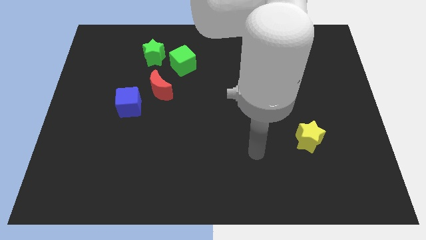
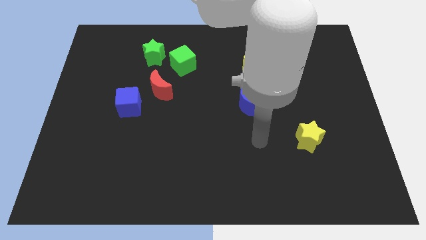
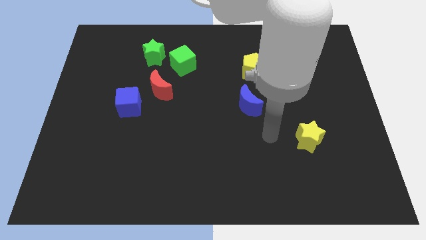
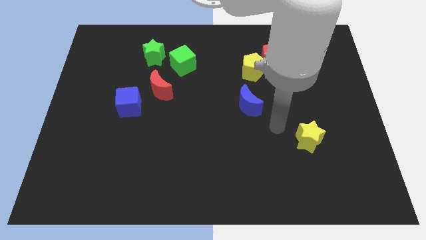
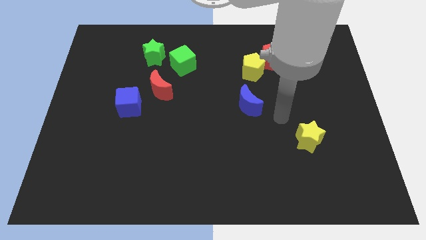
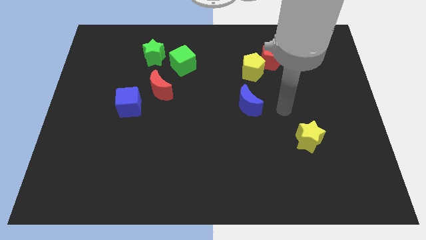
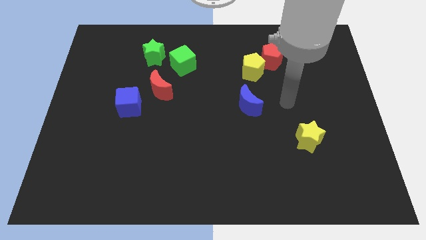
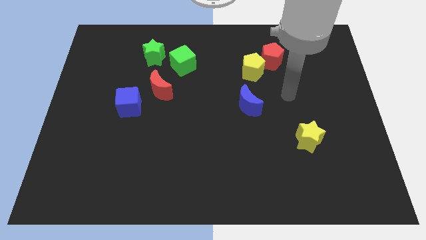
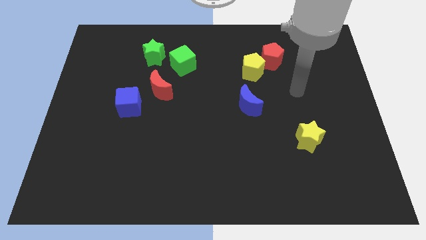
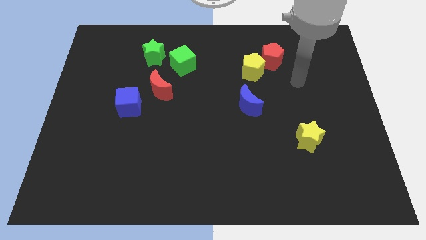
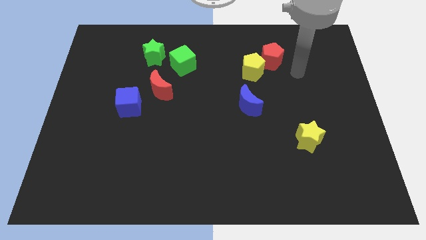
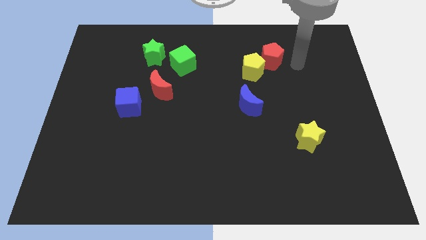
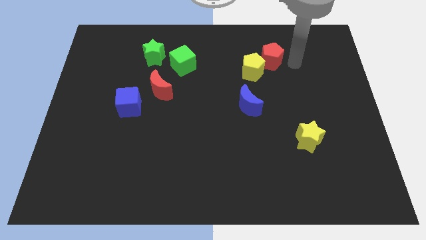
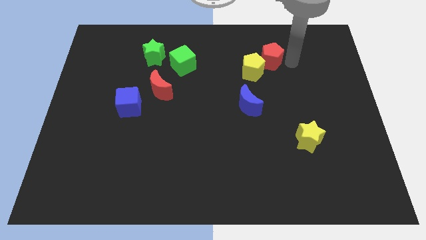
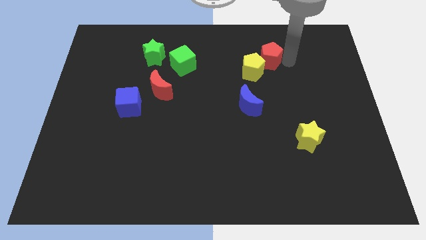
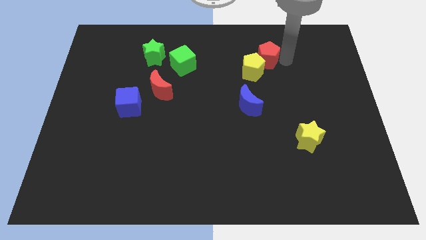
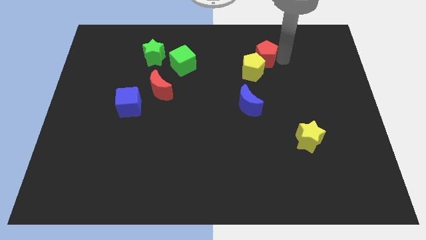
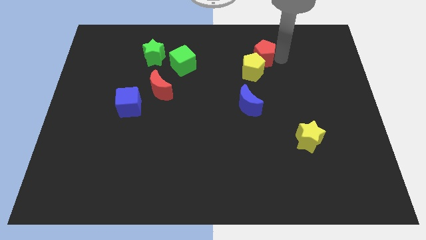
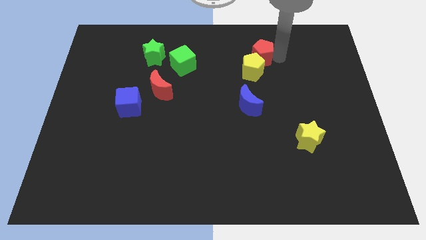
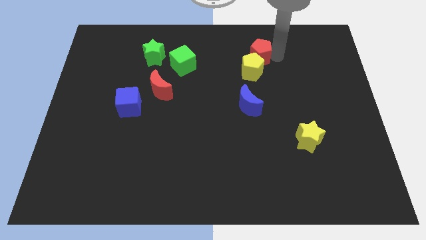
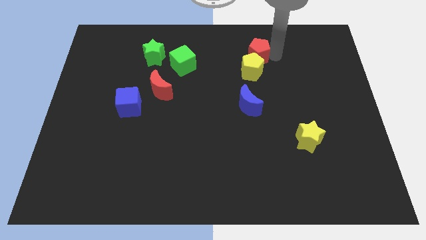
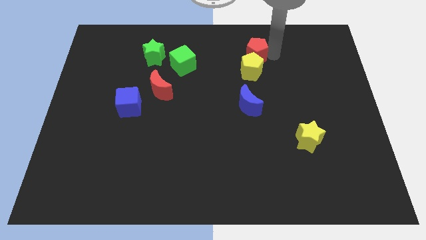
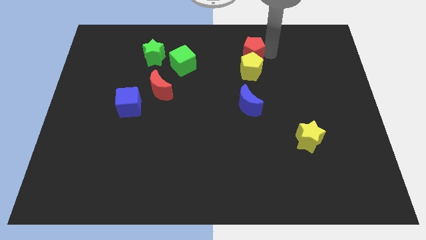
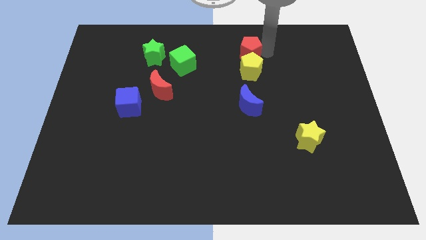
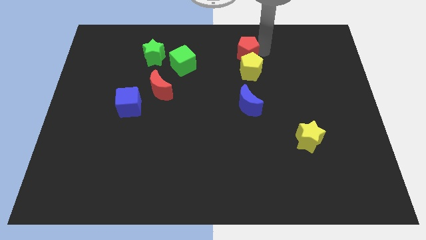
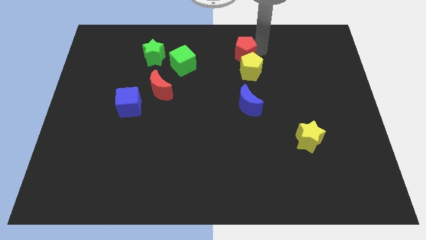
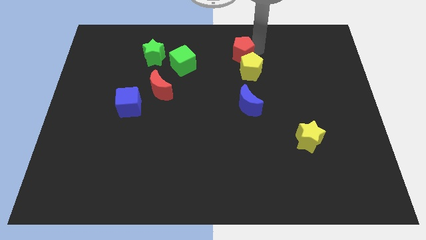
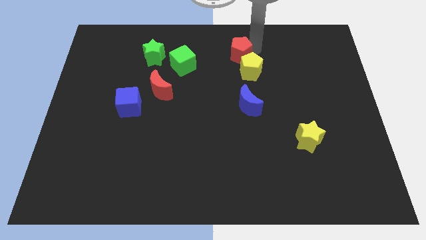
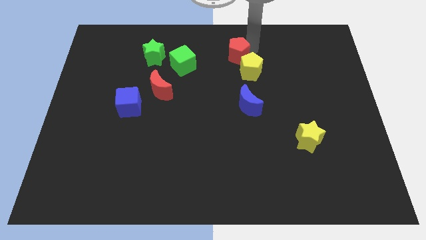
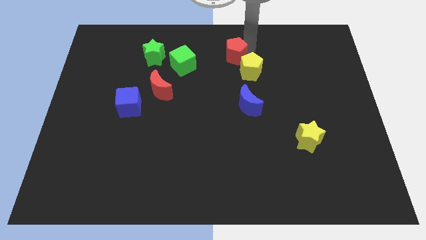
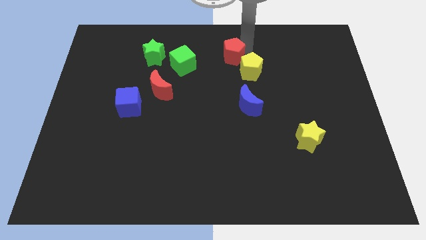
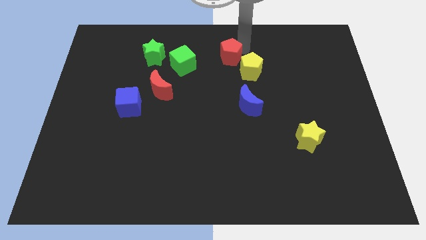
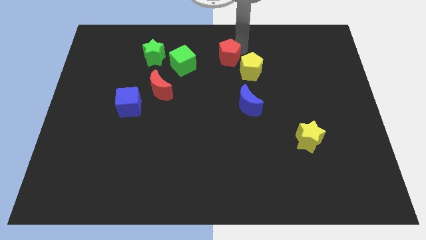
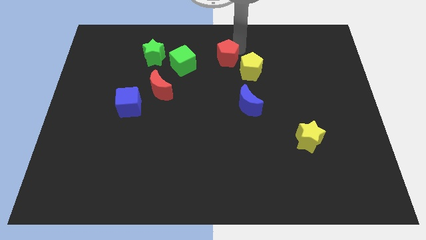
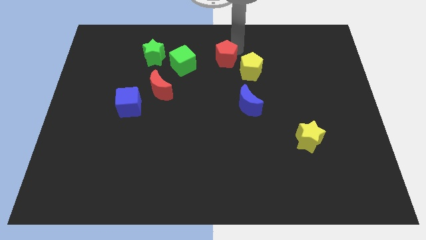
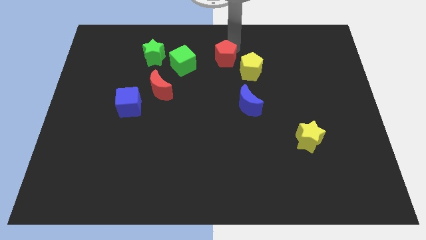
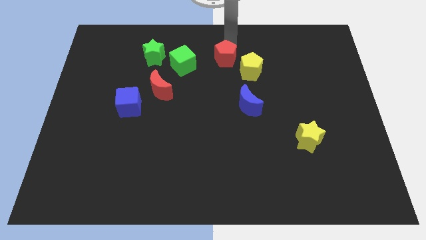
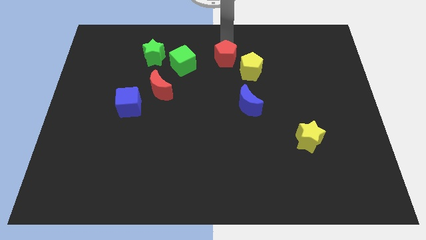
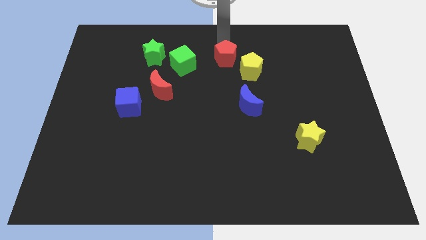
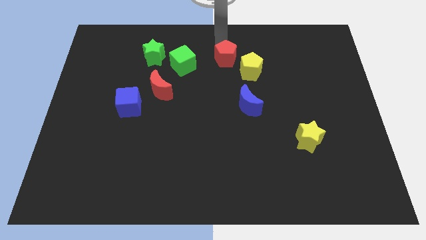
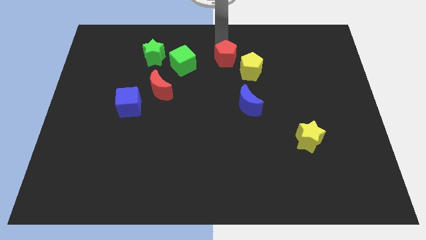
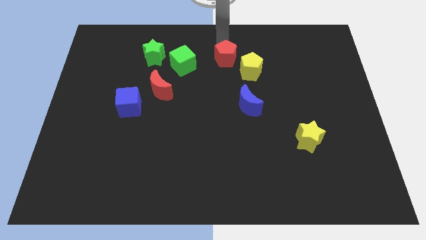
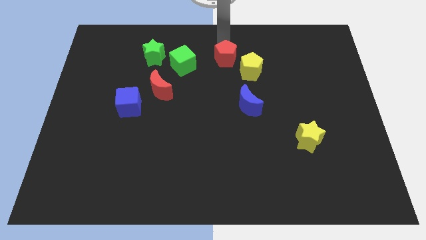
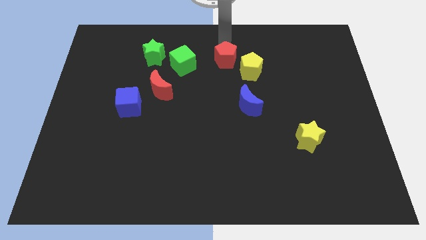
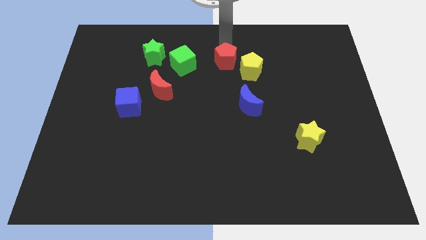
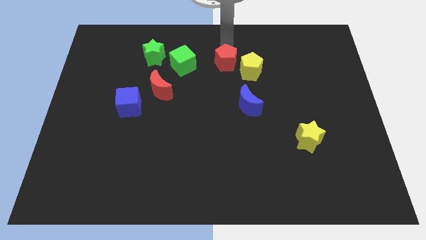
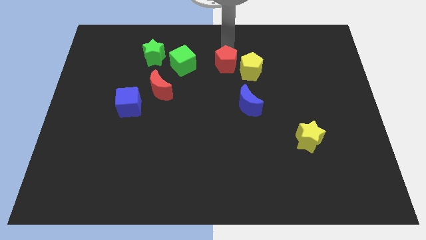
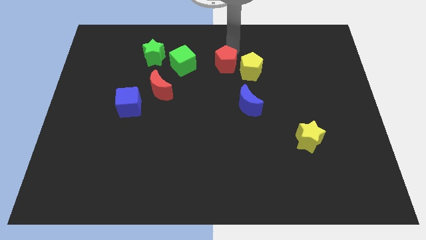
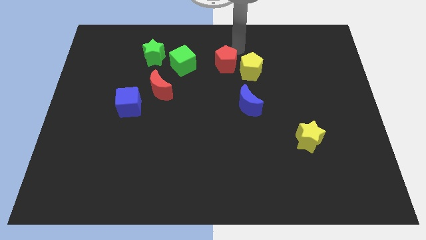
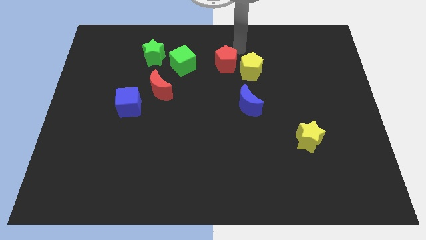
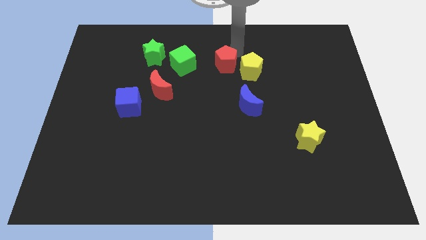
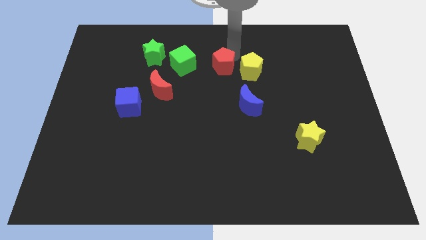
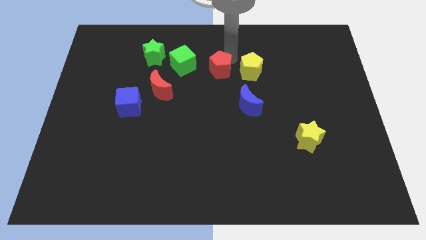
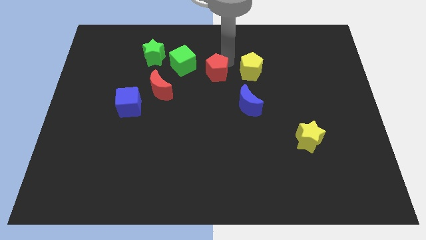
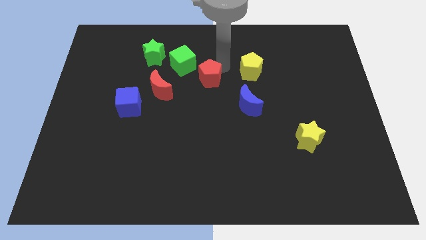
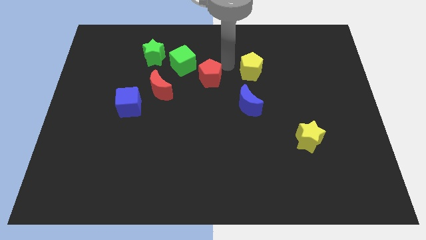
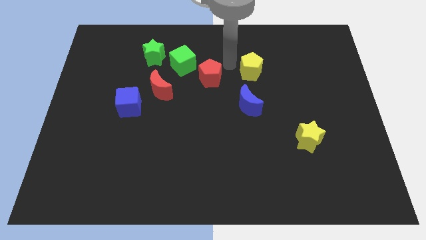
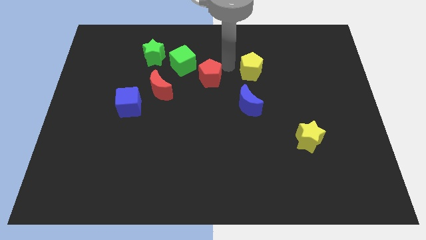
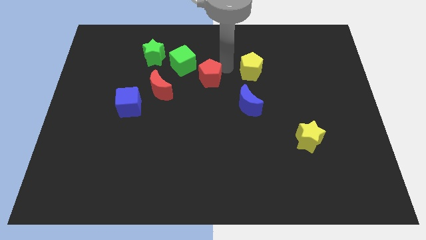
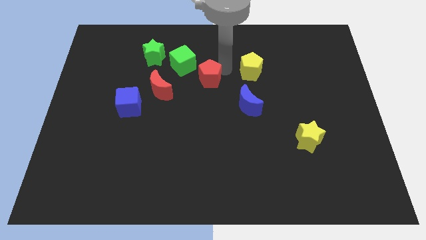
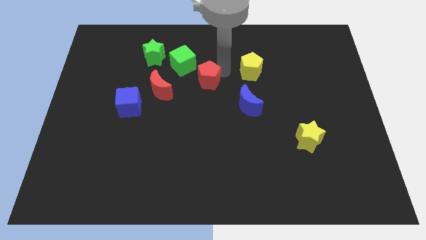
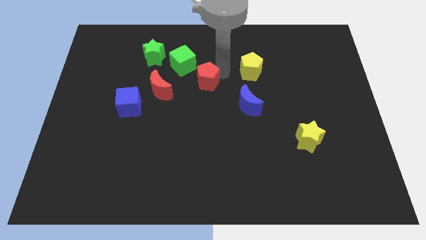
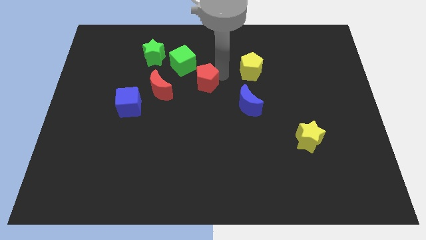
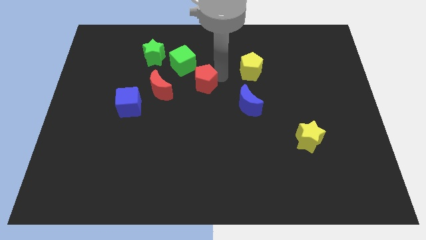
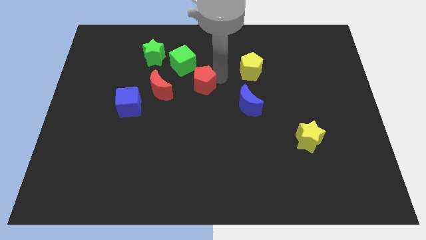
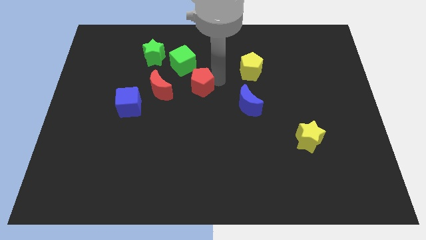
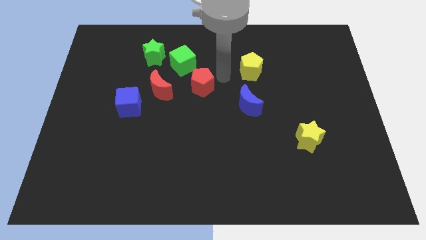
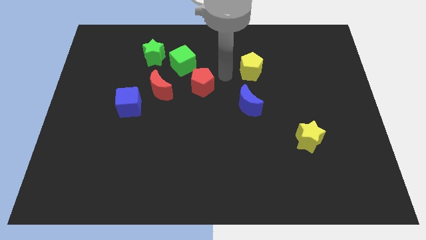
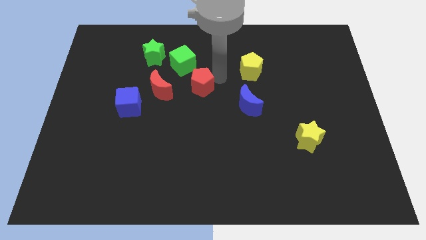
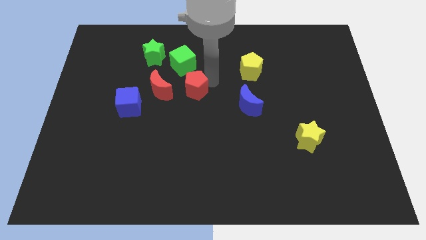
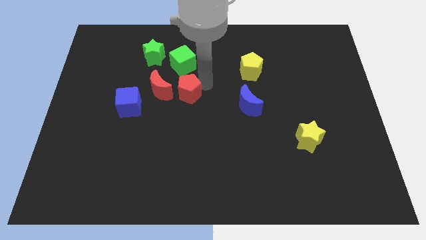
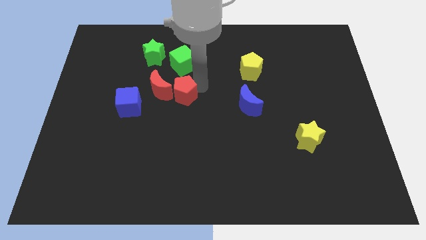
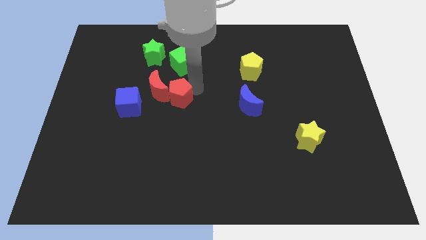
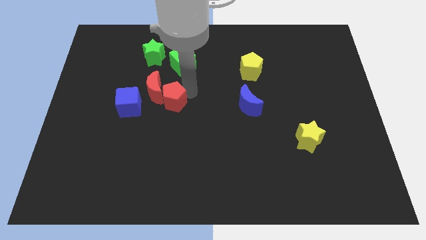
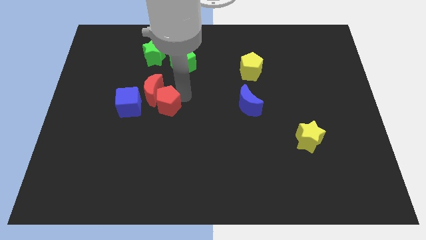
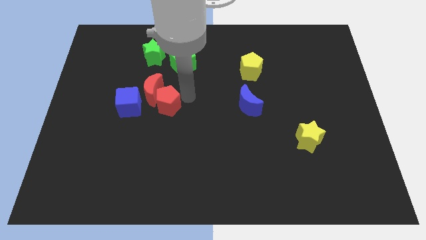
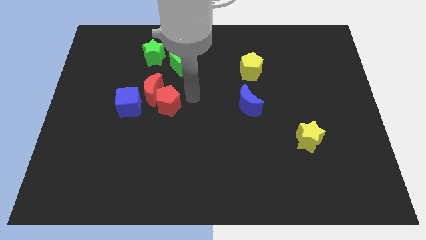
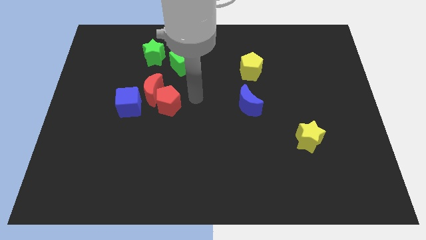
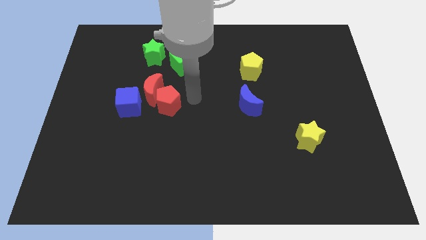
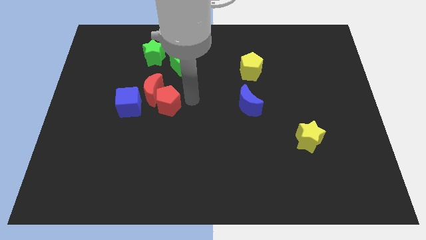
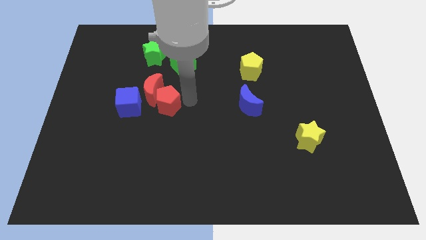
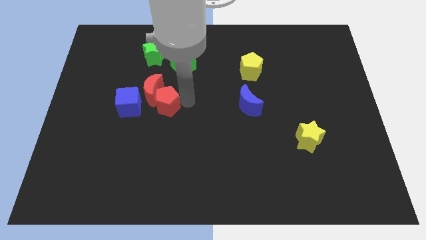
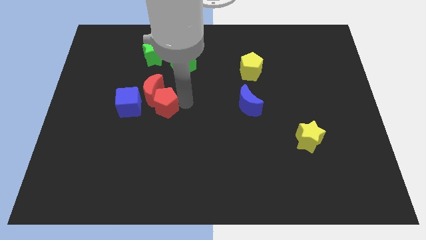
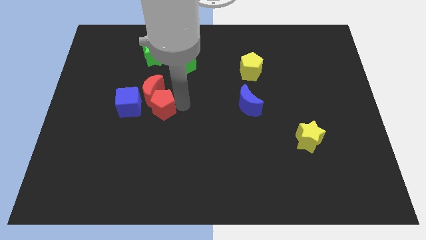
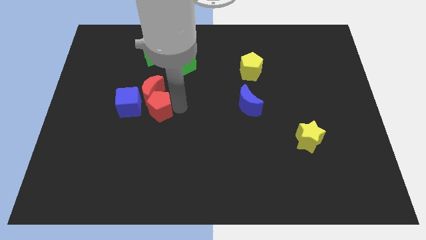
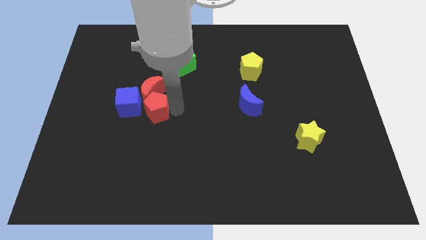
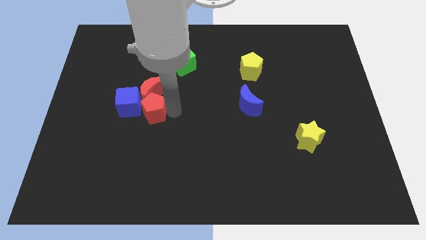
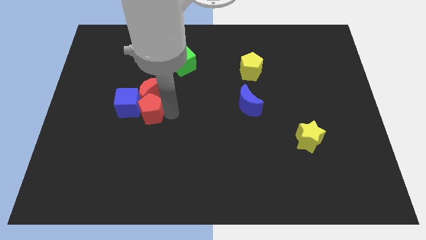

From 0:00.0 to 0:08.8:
push the red pentagon next to the blue cube
